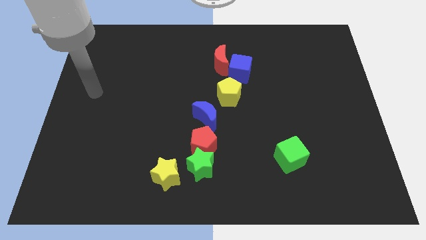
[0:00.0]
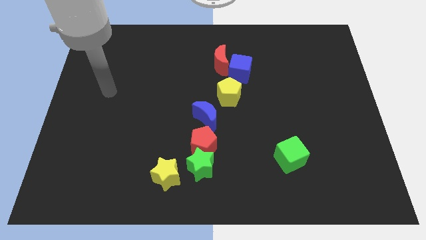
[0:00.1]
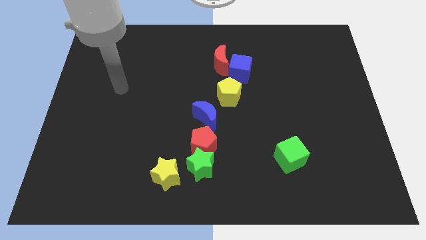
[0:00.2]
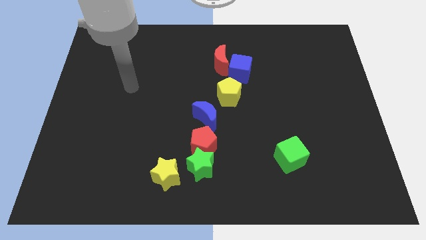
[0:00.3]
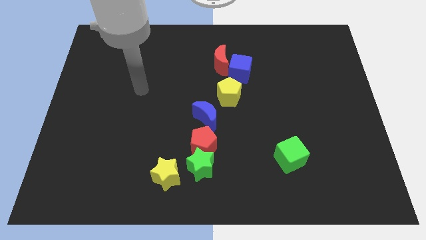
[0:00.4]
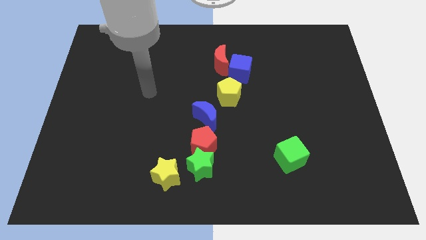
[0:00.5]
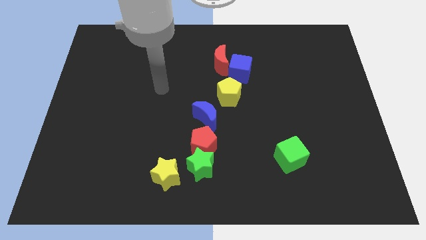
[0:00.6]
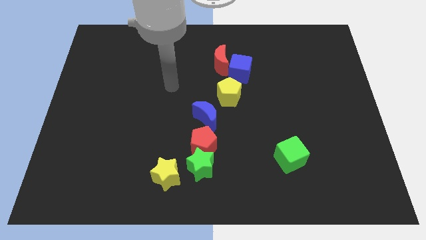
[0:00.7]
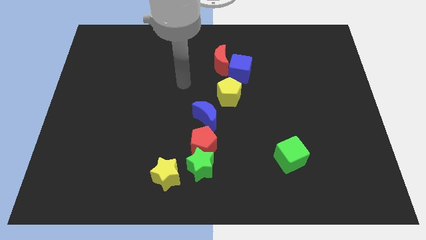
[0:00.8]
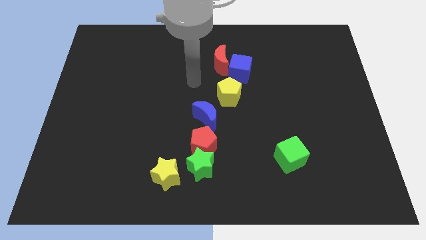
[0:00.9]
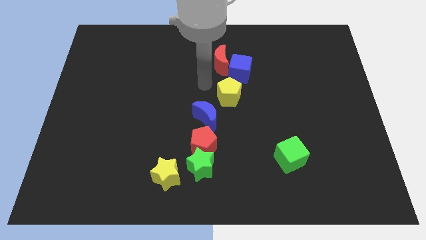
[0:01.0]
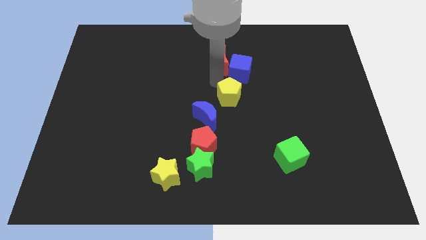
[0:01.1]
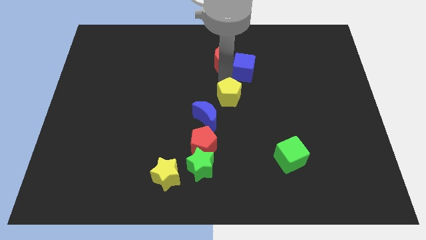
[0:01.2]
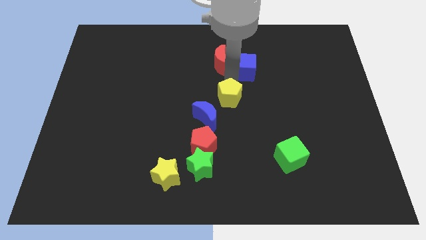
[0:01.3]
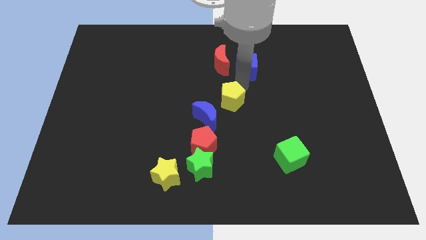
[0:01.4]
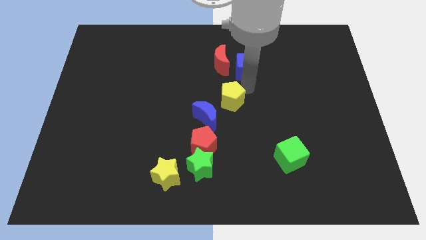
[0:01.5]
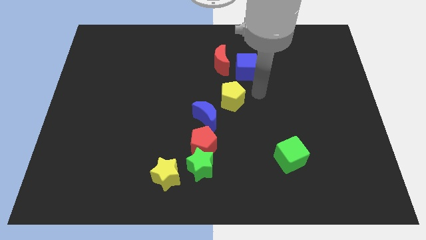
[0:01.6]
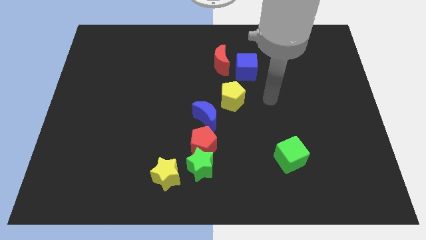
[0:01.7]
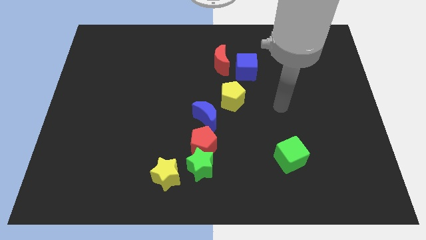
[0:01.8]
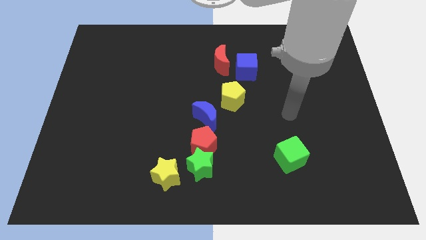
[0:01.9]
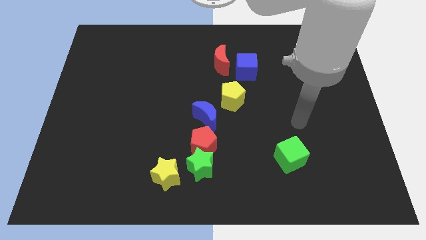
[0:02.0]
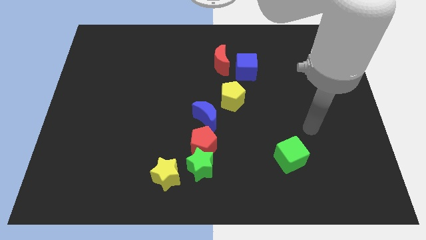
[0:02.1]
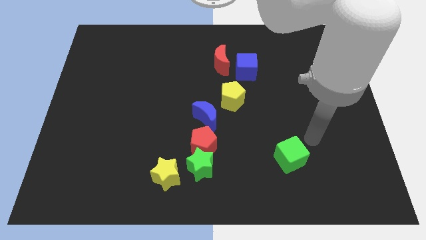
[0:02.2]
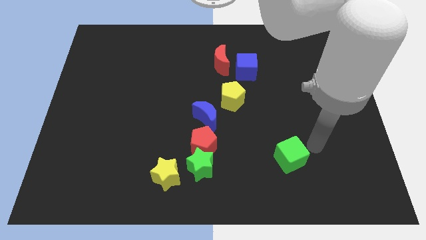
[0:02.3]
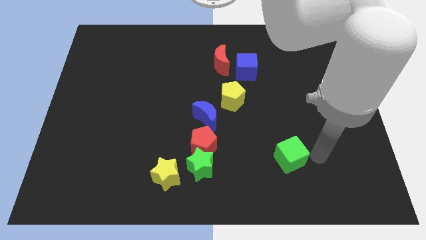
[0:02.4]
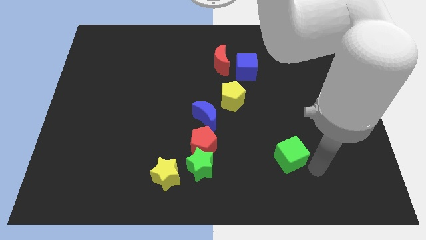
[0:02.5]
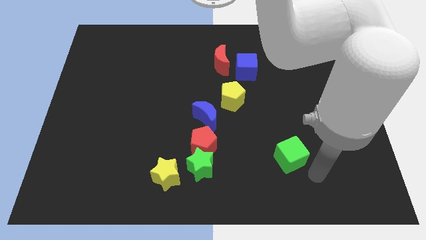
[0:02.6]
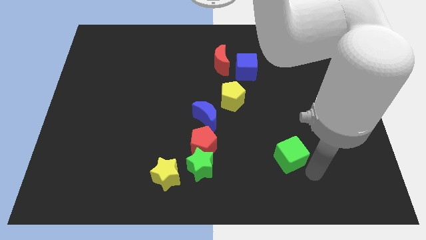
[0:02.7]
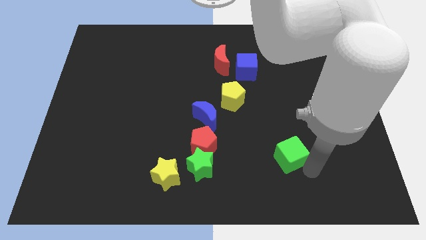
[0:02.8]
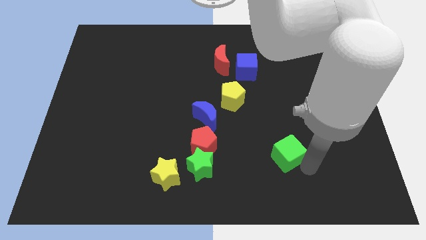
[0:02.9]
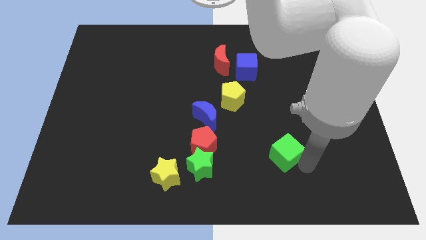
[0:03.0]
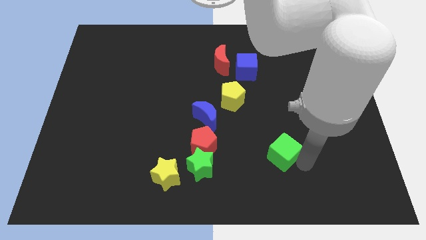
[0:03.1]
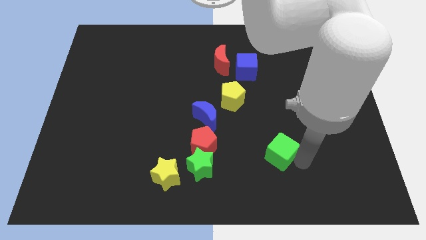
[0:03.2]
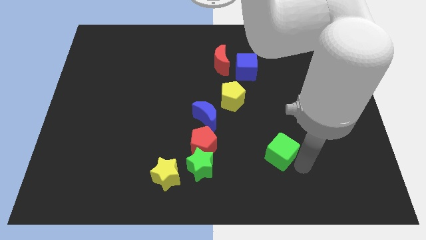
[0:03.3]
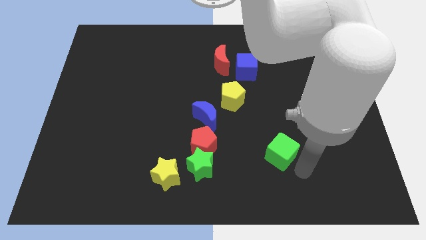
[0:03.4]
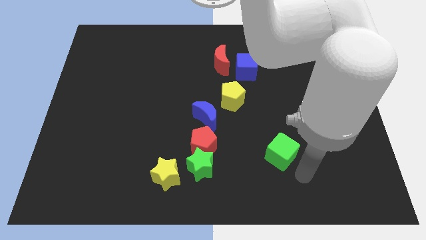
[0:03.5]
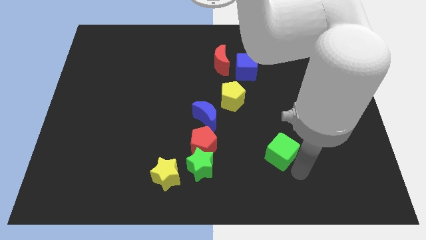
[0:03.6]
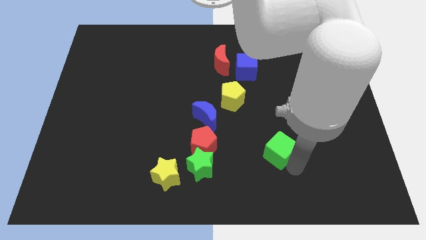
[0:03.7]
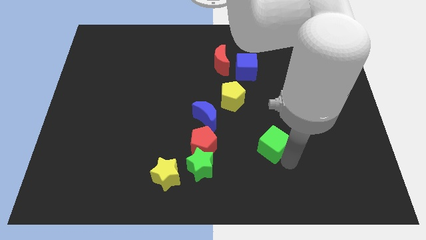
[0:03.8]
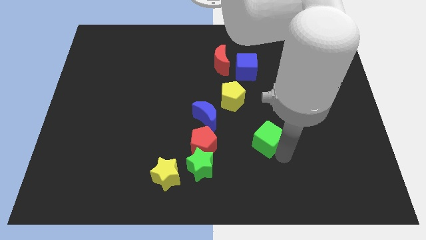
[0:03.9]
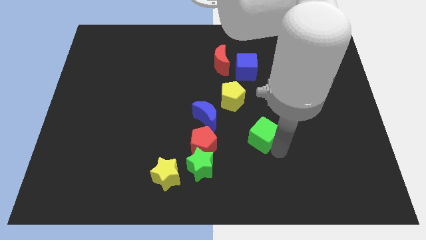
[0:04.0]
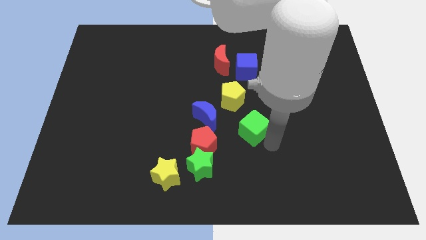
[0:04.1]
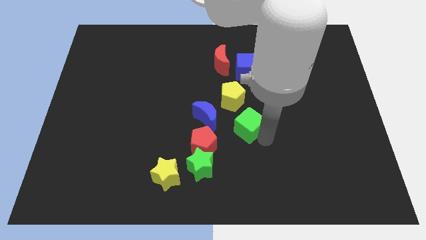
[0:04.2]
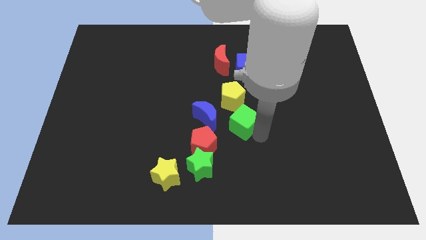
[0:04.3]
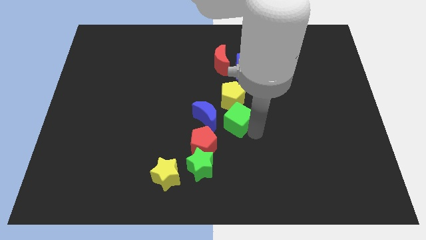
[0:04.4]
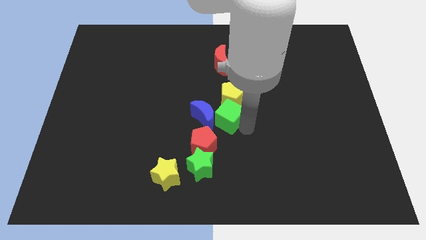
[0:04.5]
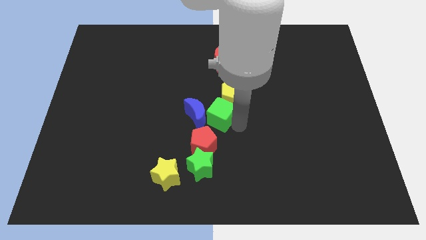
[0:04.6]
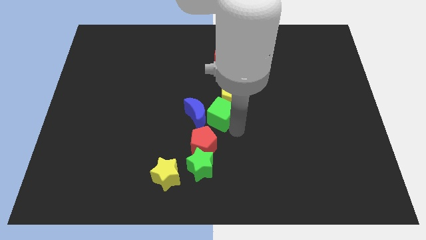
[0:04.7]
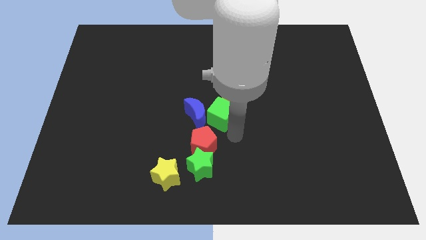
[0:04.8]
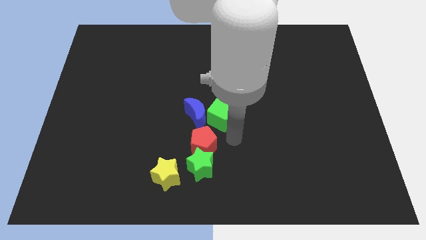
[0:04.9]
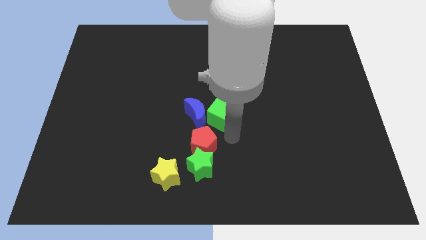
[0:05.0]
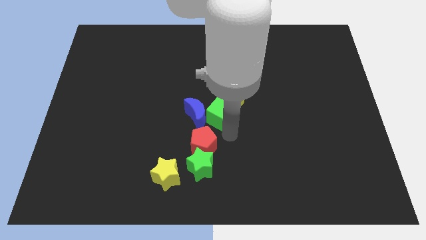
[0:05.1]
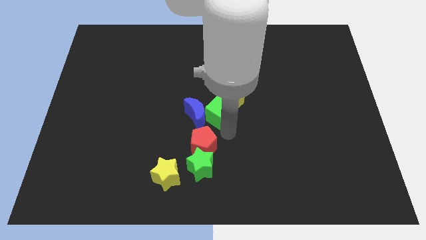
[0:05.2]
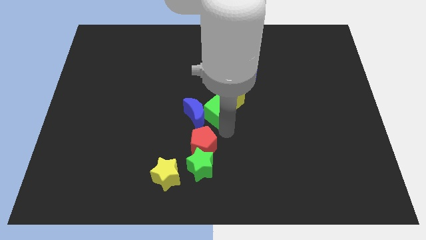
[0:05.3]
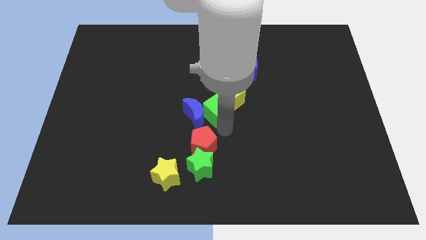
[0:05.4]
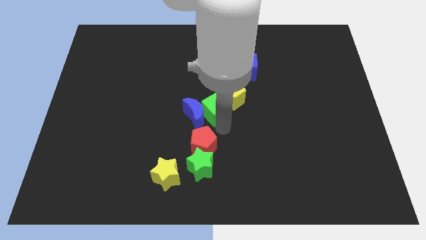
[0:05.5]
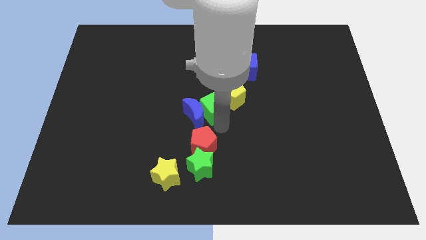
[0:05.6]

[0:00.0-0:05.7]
move the green cube upwards and then left

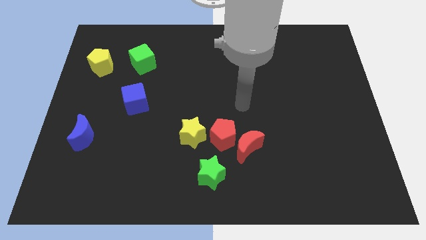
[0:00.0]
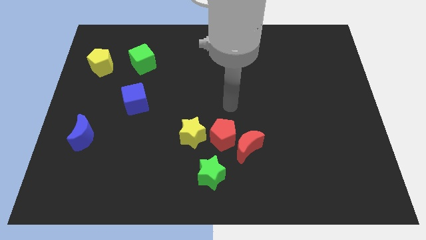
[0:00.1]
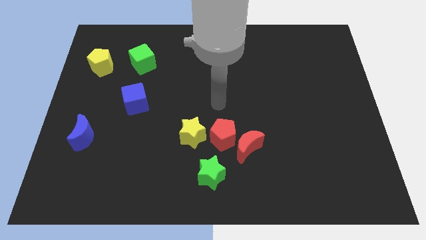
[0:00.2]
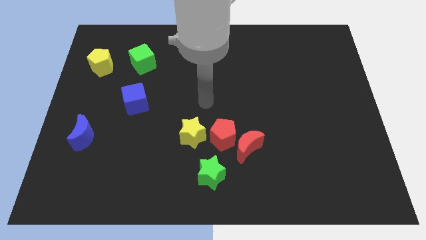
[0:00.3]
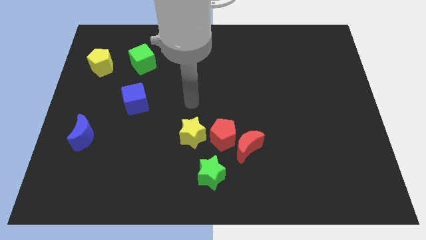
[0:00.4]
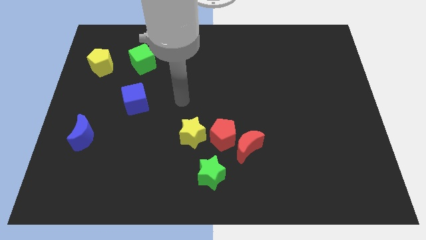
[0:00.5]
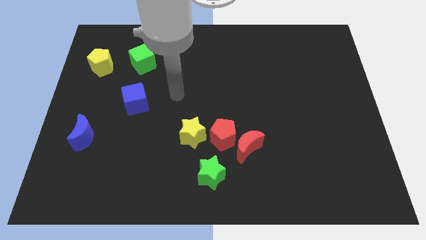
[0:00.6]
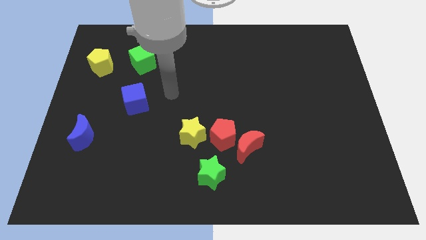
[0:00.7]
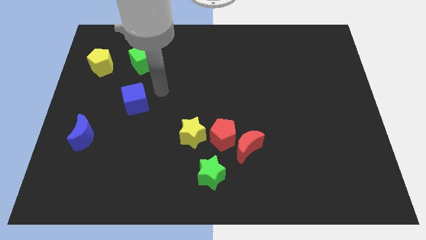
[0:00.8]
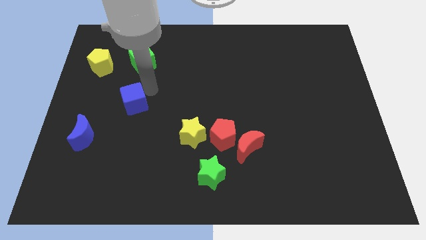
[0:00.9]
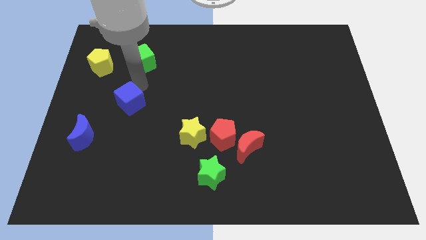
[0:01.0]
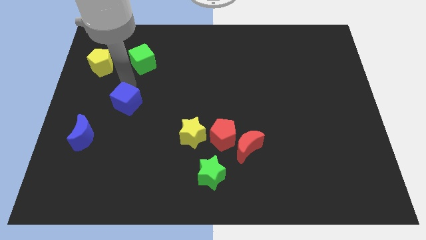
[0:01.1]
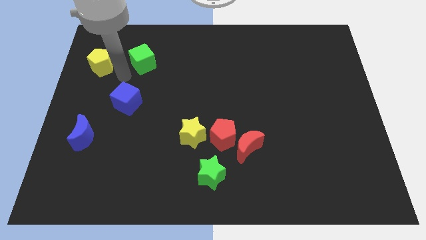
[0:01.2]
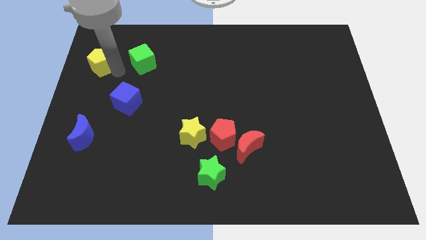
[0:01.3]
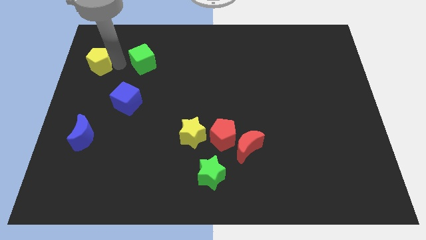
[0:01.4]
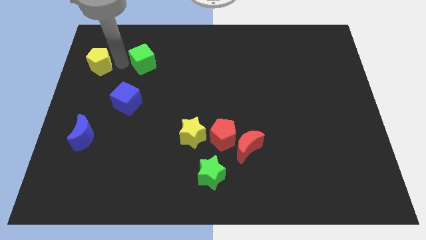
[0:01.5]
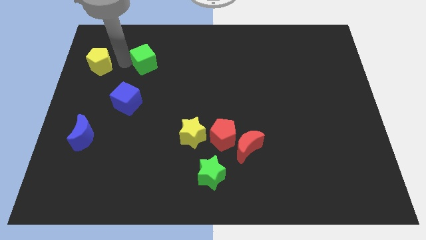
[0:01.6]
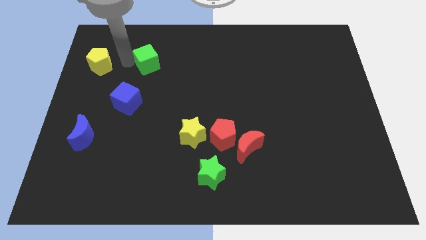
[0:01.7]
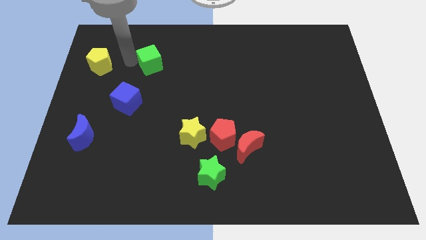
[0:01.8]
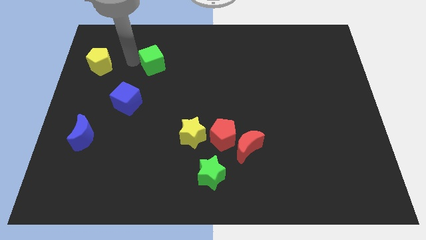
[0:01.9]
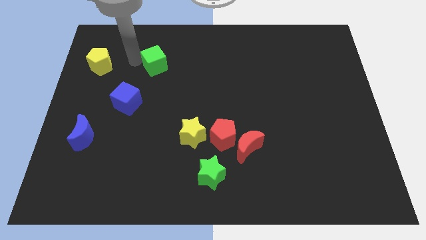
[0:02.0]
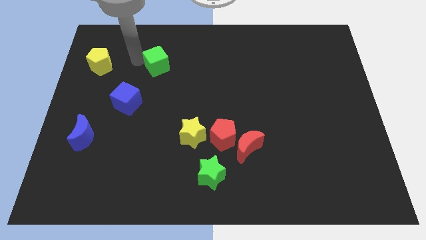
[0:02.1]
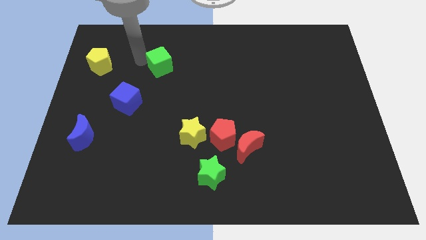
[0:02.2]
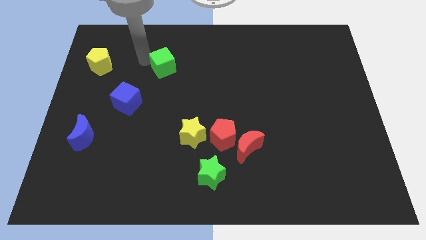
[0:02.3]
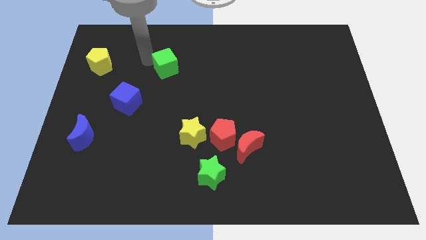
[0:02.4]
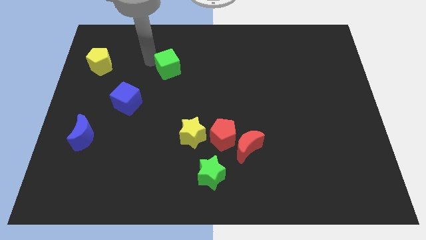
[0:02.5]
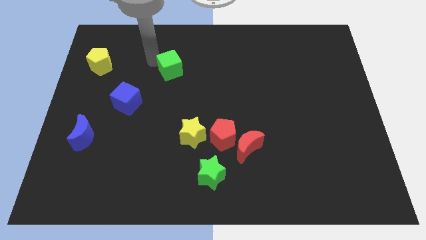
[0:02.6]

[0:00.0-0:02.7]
slightly push the green cube right
